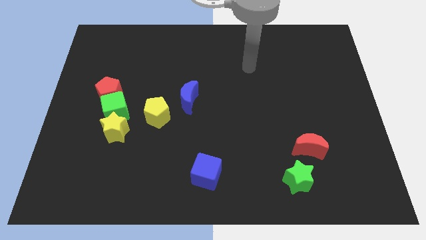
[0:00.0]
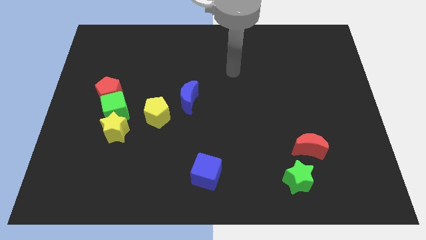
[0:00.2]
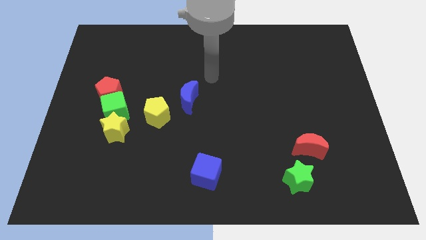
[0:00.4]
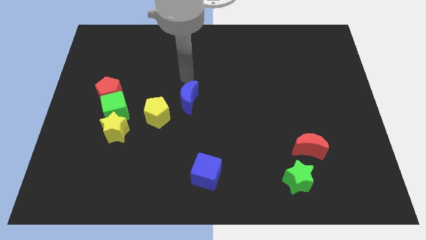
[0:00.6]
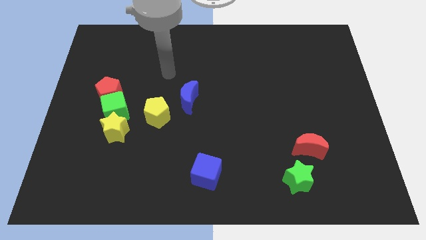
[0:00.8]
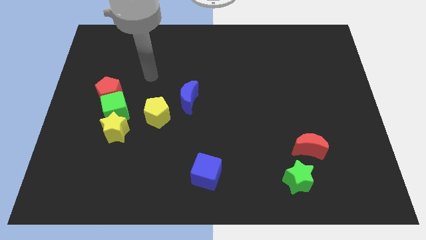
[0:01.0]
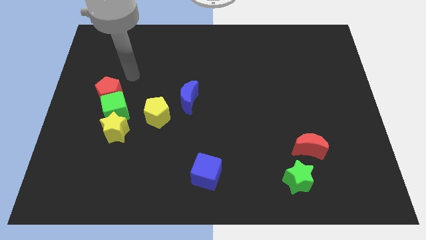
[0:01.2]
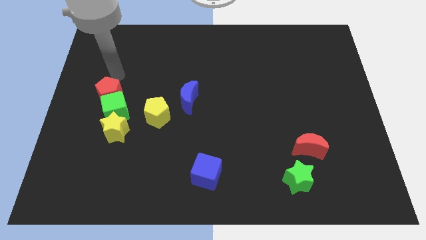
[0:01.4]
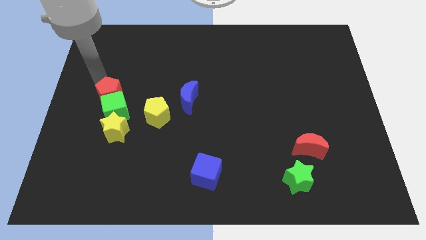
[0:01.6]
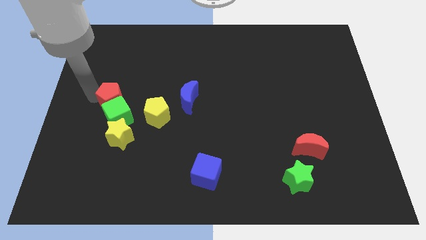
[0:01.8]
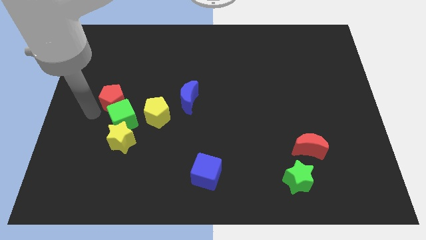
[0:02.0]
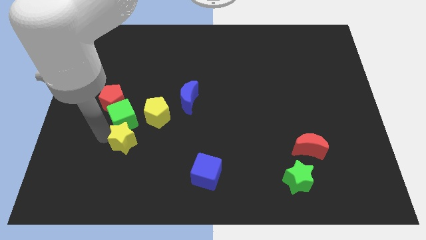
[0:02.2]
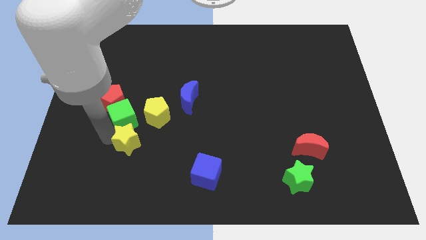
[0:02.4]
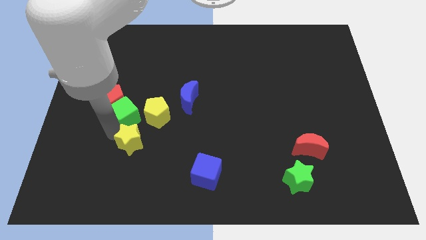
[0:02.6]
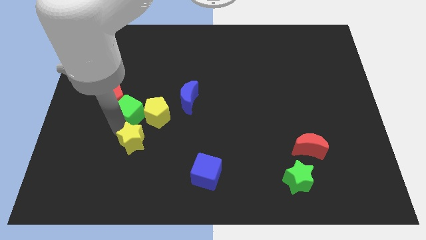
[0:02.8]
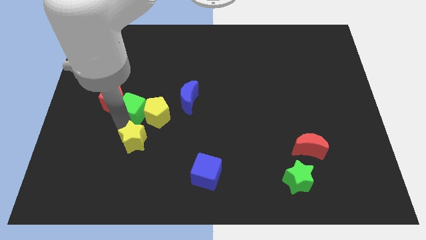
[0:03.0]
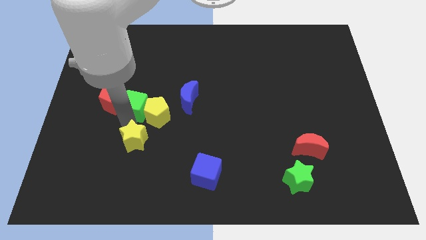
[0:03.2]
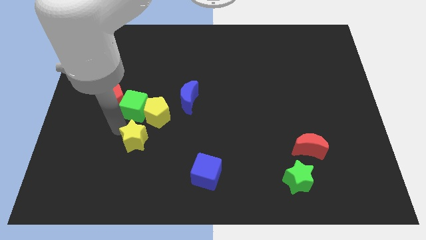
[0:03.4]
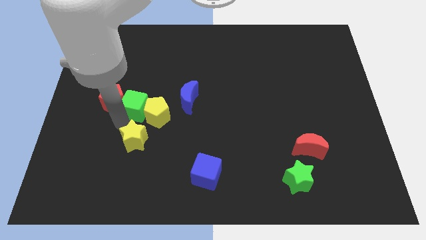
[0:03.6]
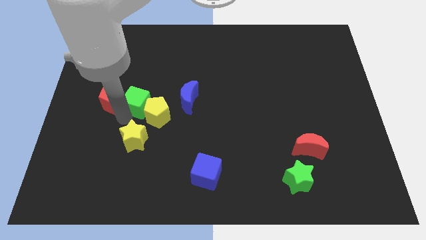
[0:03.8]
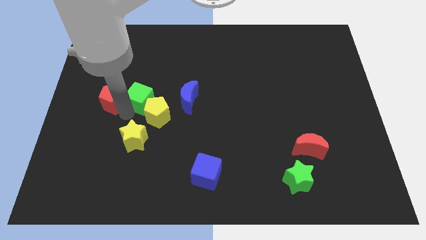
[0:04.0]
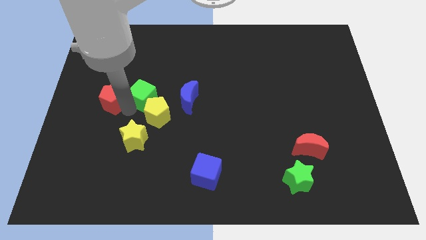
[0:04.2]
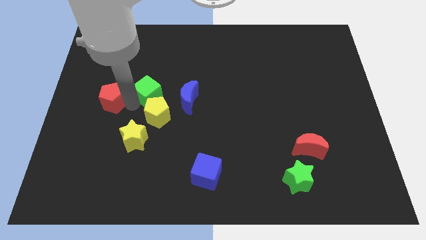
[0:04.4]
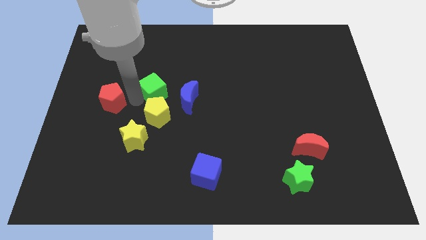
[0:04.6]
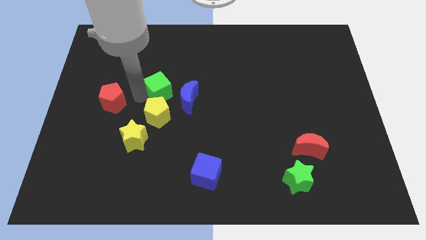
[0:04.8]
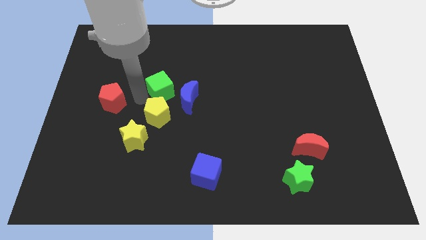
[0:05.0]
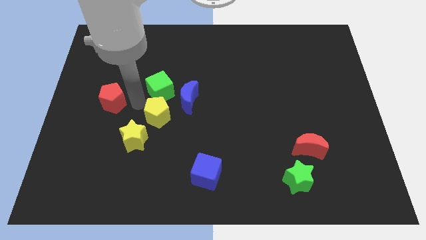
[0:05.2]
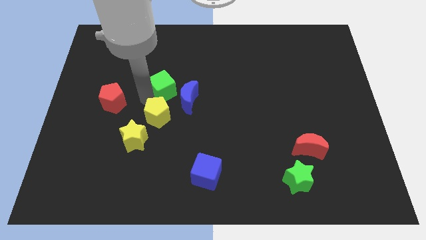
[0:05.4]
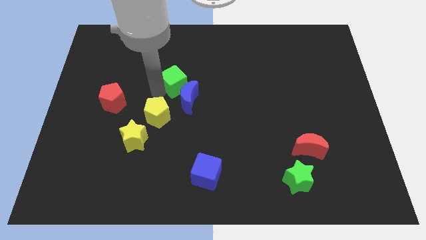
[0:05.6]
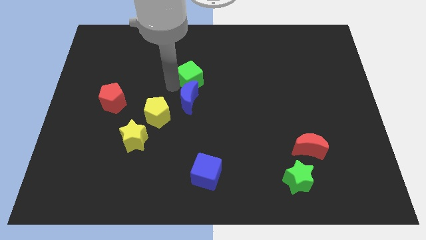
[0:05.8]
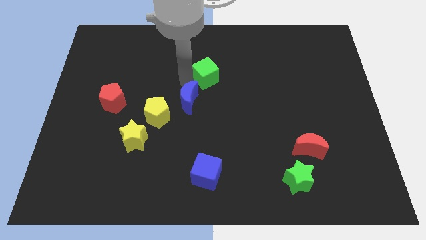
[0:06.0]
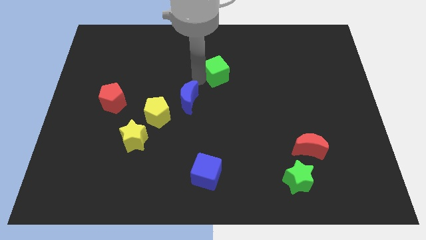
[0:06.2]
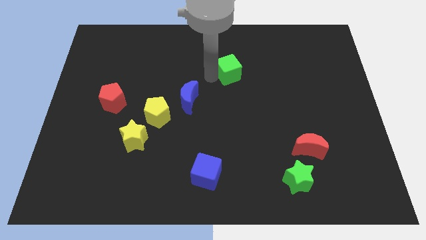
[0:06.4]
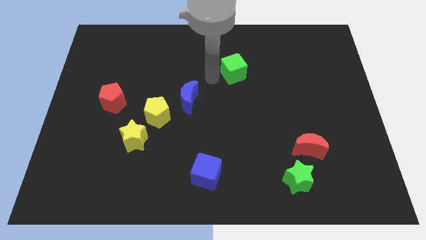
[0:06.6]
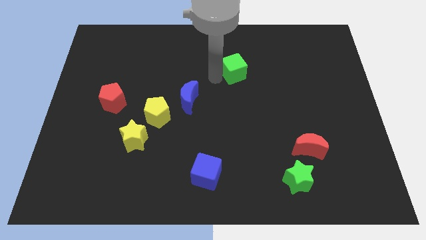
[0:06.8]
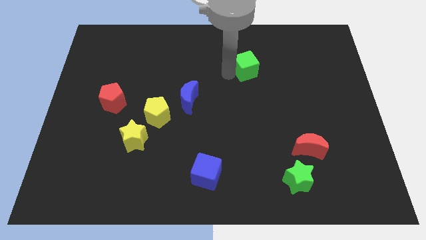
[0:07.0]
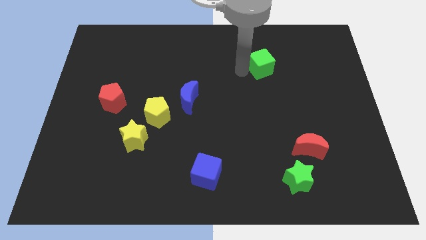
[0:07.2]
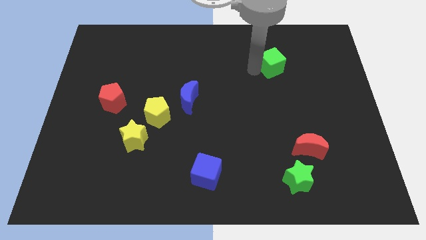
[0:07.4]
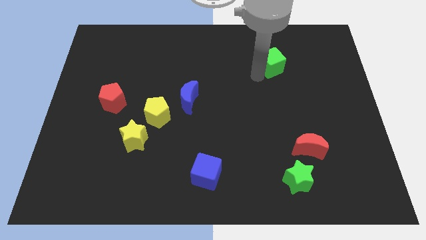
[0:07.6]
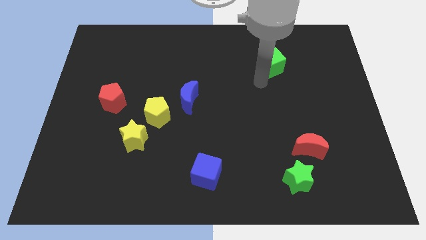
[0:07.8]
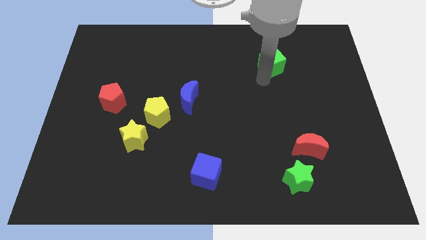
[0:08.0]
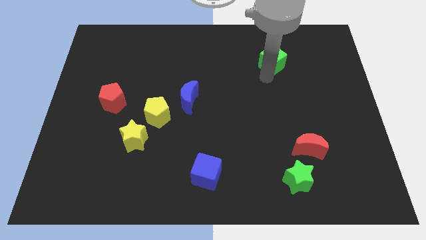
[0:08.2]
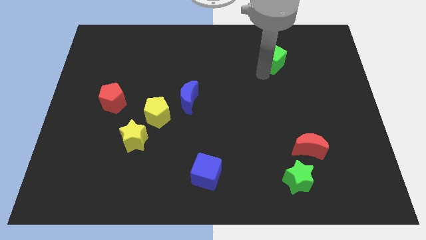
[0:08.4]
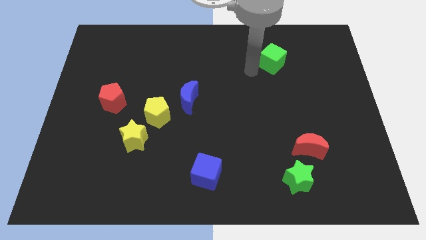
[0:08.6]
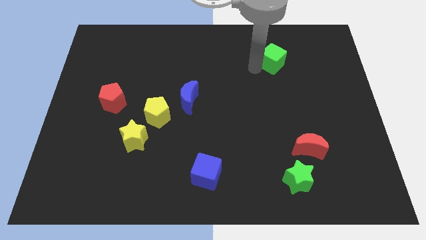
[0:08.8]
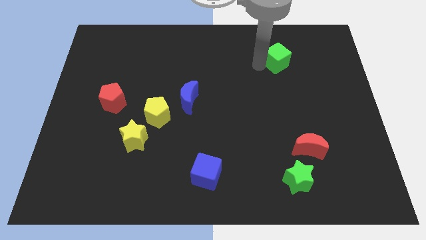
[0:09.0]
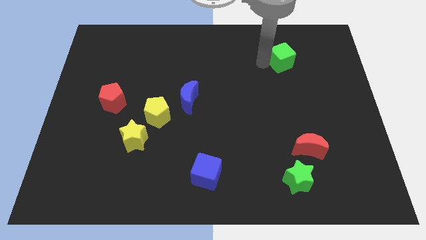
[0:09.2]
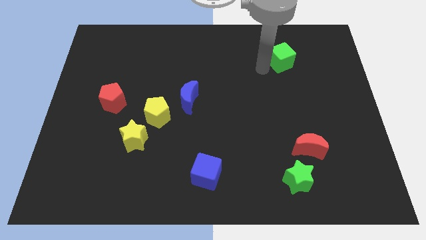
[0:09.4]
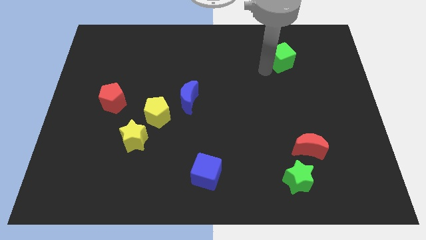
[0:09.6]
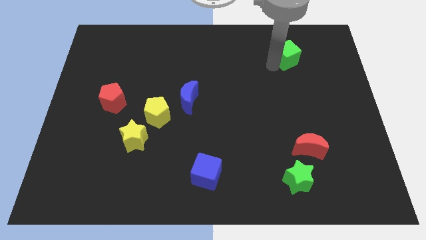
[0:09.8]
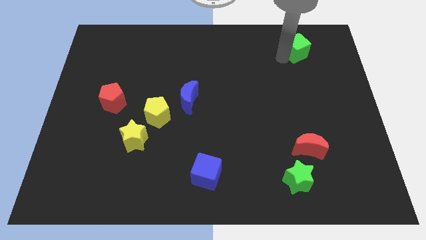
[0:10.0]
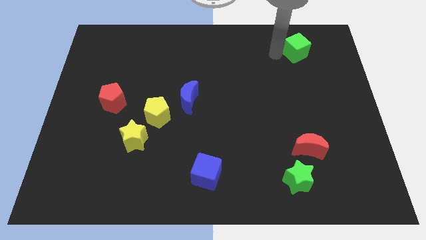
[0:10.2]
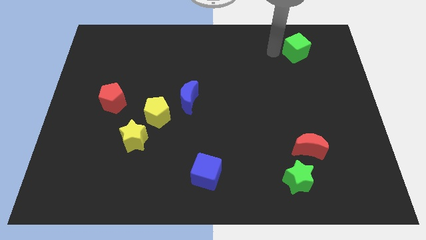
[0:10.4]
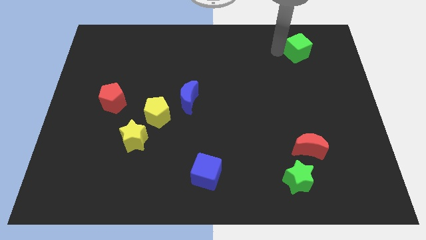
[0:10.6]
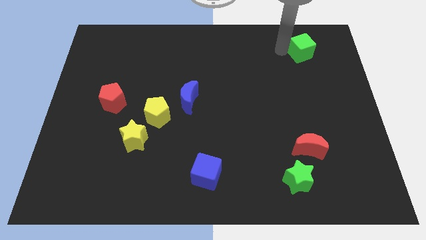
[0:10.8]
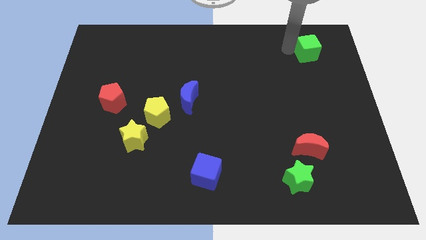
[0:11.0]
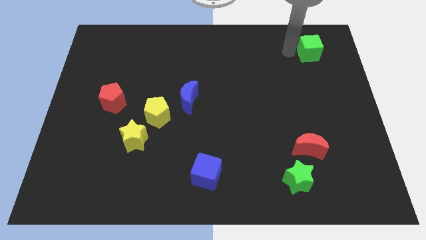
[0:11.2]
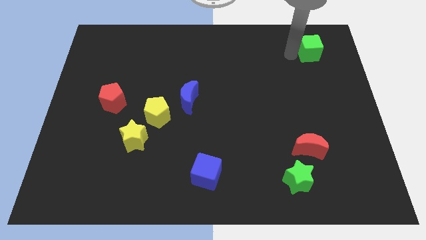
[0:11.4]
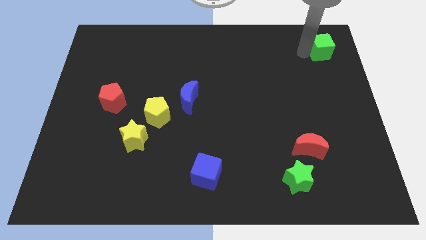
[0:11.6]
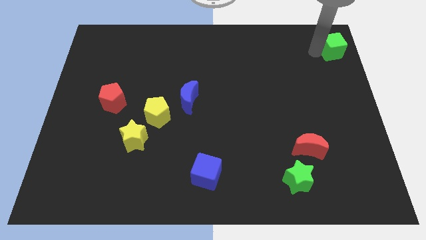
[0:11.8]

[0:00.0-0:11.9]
put the green cube to the top right
